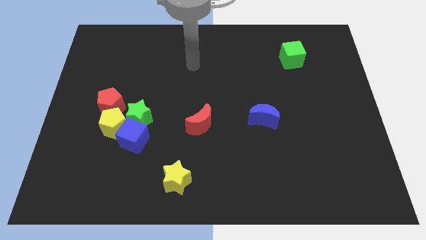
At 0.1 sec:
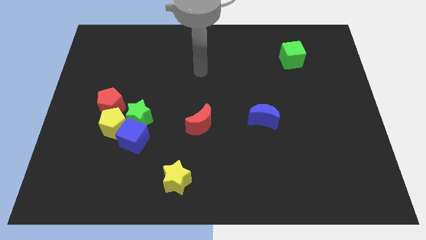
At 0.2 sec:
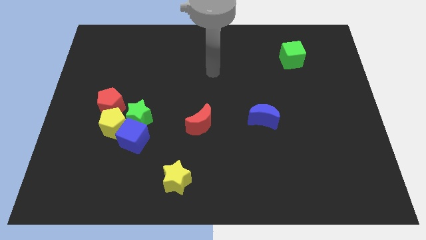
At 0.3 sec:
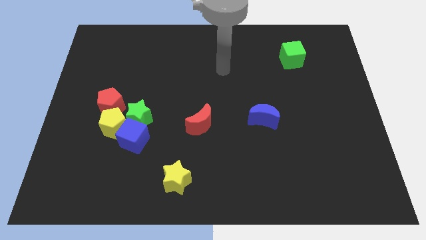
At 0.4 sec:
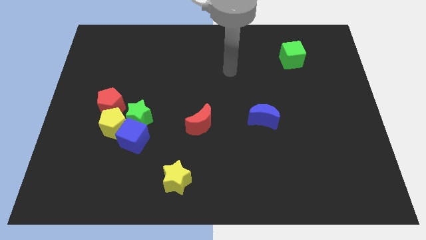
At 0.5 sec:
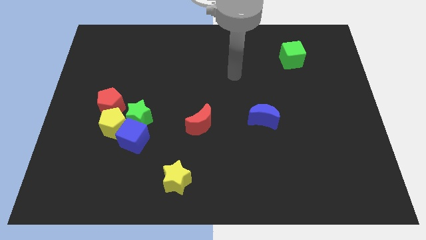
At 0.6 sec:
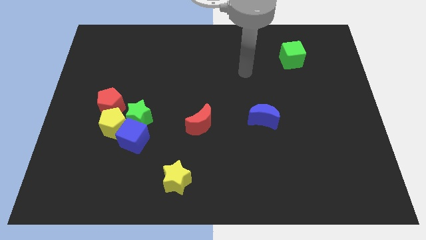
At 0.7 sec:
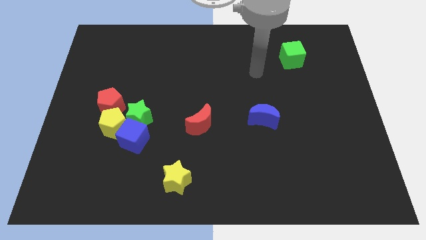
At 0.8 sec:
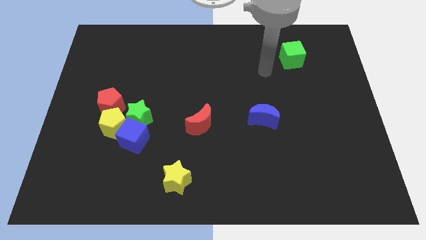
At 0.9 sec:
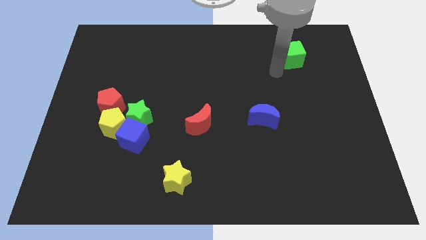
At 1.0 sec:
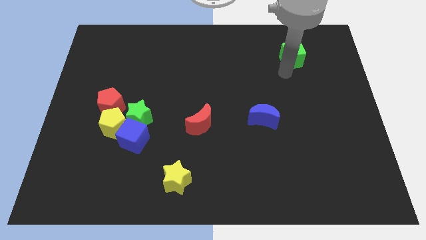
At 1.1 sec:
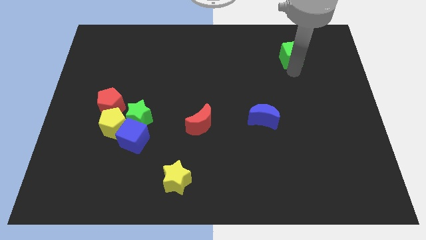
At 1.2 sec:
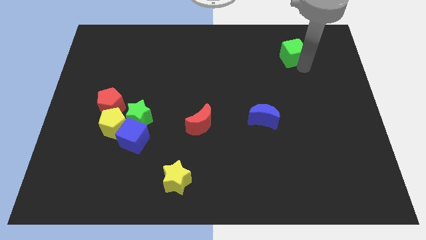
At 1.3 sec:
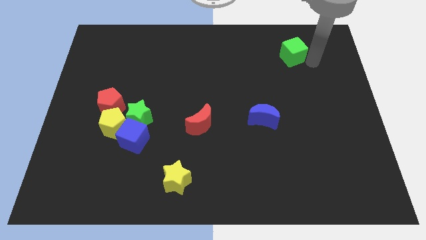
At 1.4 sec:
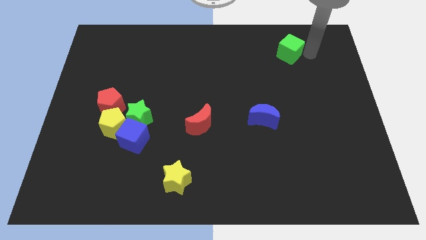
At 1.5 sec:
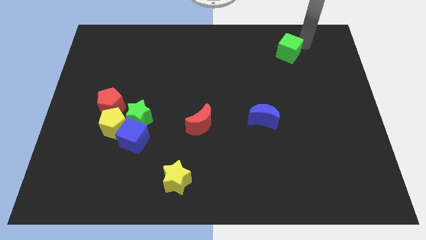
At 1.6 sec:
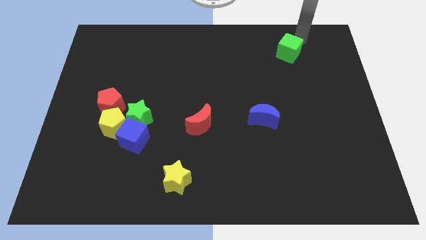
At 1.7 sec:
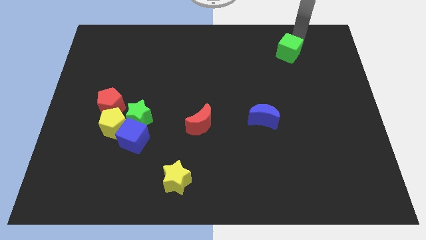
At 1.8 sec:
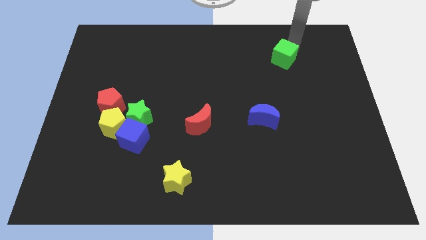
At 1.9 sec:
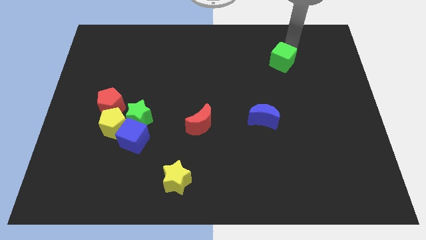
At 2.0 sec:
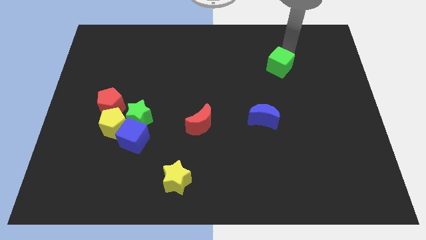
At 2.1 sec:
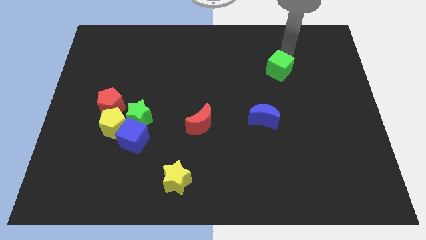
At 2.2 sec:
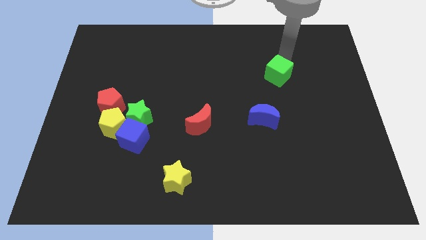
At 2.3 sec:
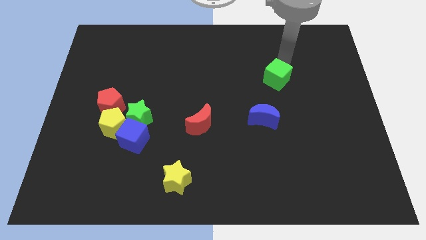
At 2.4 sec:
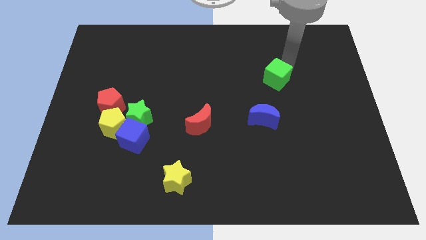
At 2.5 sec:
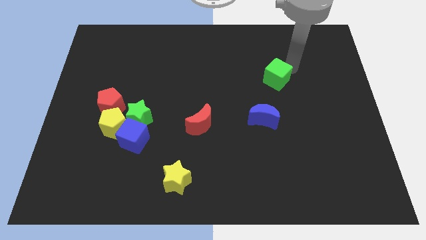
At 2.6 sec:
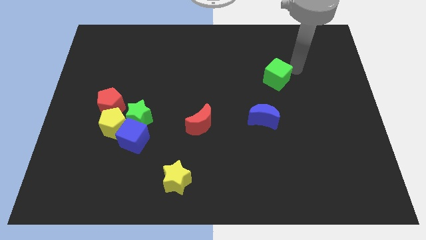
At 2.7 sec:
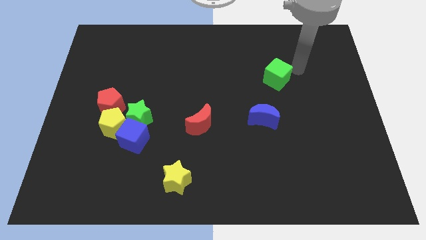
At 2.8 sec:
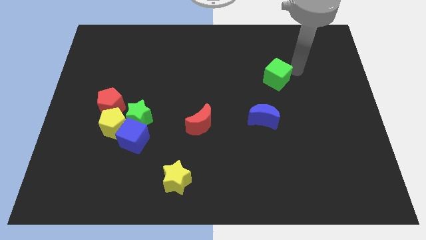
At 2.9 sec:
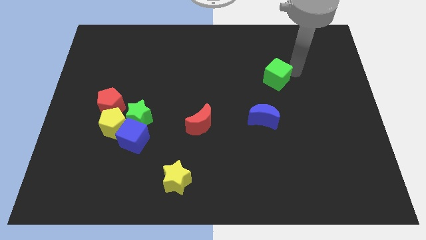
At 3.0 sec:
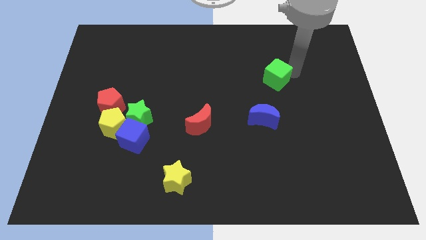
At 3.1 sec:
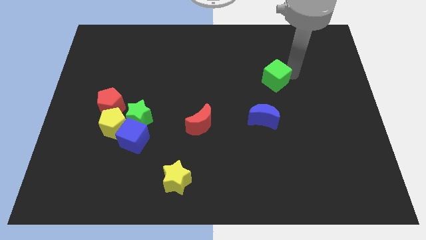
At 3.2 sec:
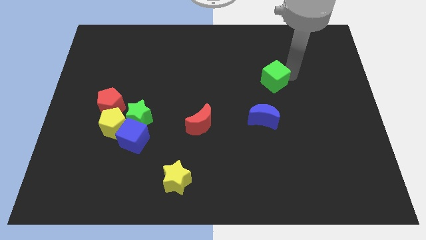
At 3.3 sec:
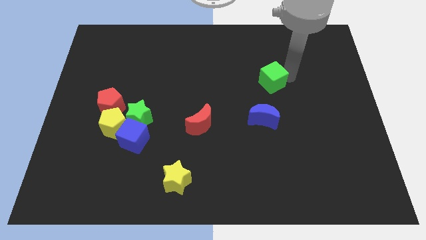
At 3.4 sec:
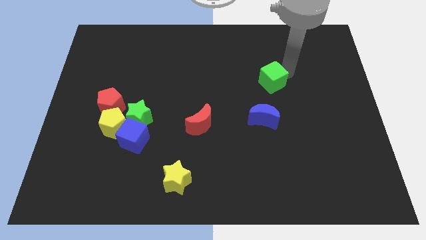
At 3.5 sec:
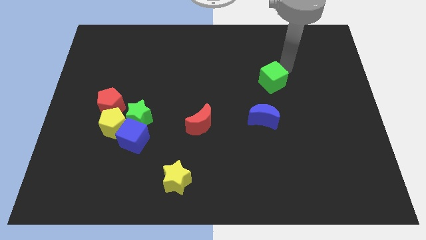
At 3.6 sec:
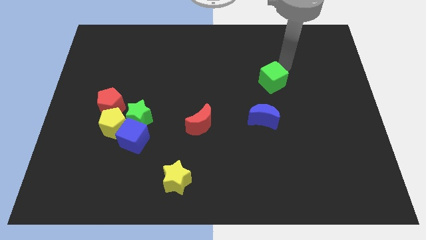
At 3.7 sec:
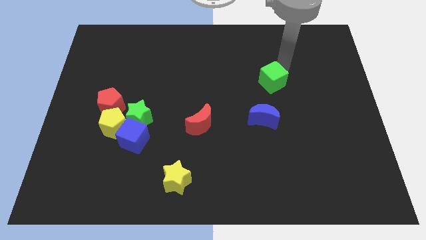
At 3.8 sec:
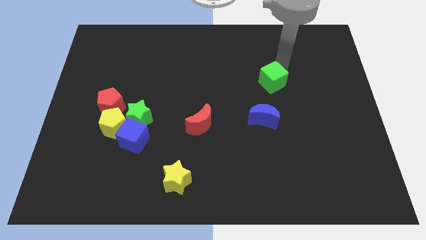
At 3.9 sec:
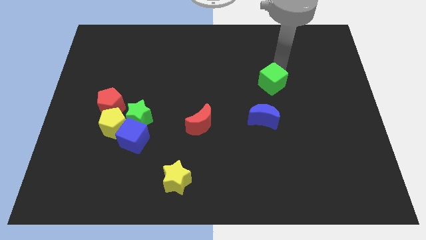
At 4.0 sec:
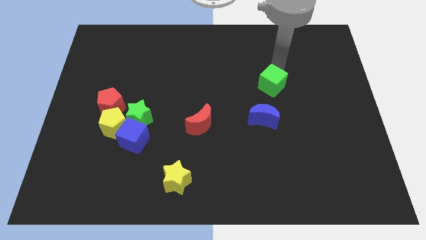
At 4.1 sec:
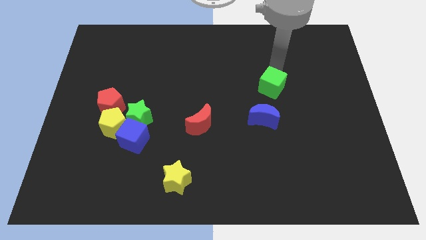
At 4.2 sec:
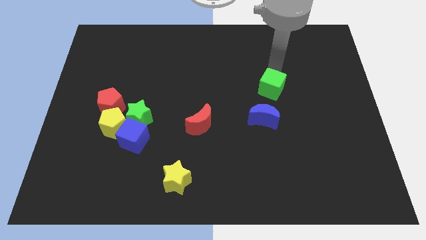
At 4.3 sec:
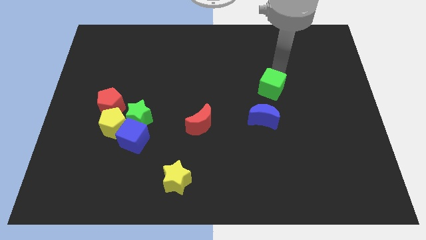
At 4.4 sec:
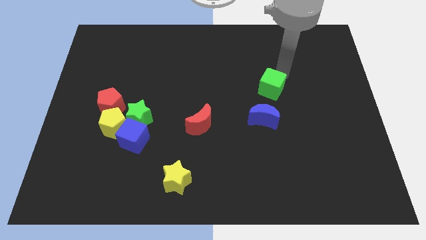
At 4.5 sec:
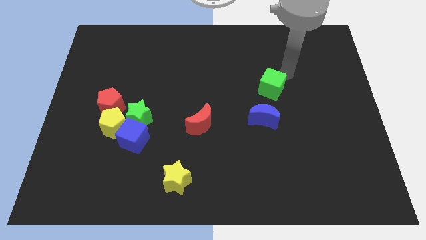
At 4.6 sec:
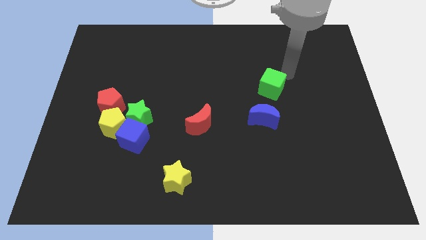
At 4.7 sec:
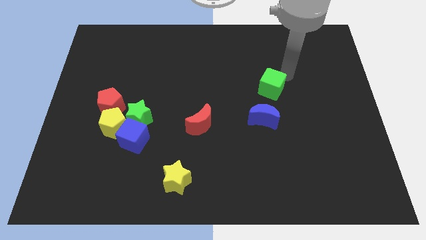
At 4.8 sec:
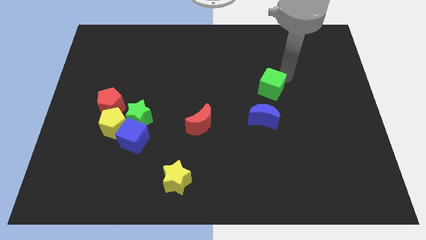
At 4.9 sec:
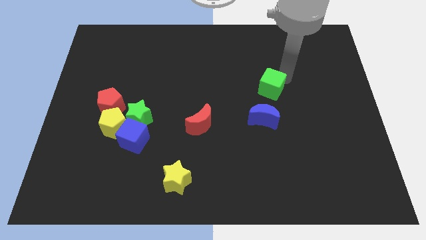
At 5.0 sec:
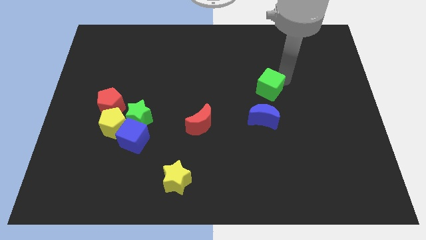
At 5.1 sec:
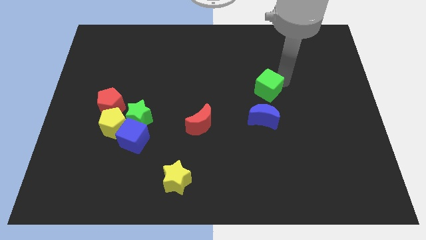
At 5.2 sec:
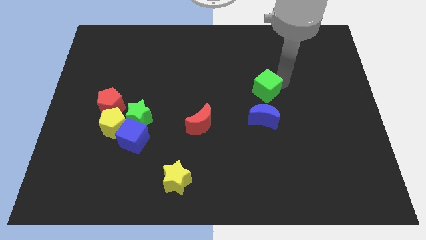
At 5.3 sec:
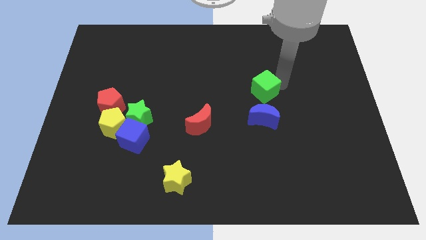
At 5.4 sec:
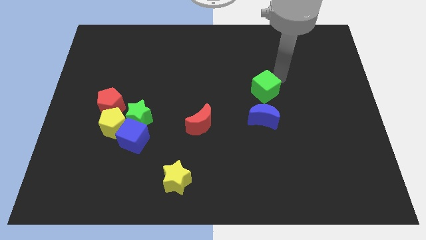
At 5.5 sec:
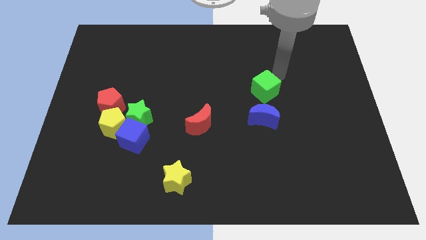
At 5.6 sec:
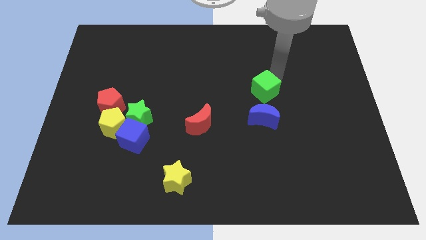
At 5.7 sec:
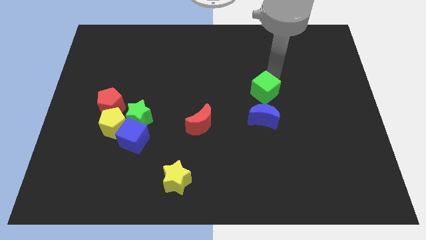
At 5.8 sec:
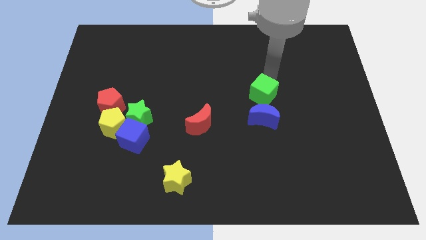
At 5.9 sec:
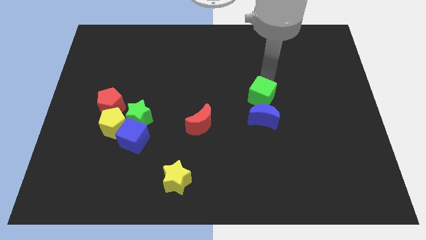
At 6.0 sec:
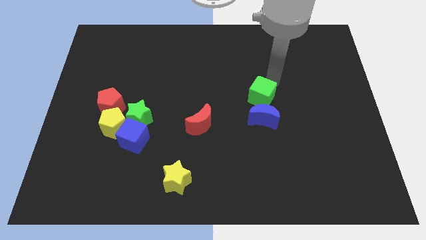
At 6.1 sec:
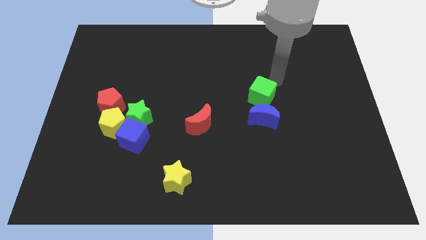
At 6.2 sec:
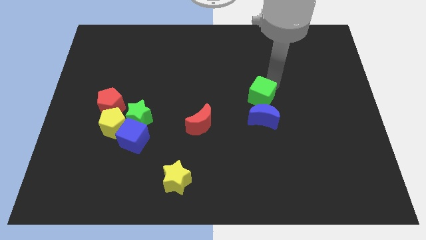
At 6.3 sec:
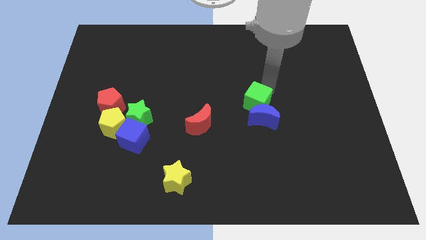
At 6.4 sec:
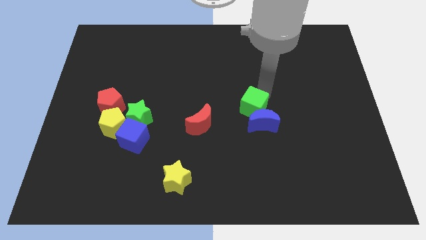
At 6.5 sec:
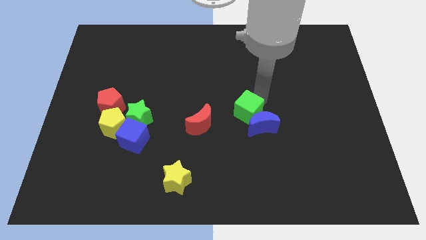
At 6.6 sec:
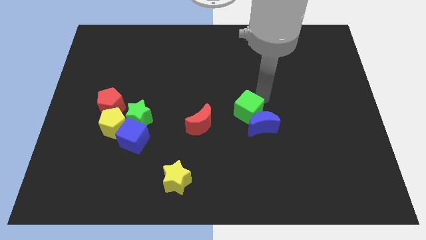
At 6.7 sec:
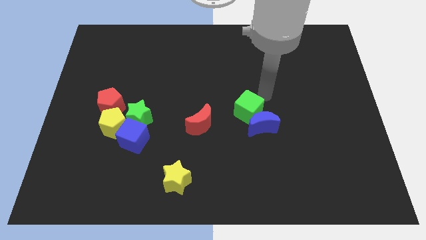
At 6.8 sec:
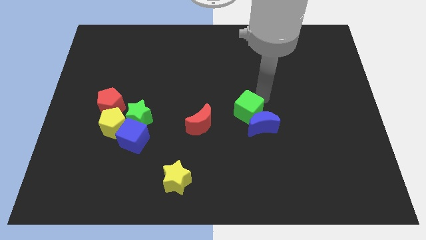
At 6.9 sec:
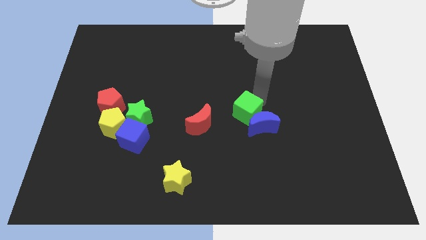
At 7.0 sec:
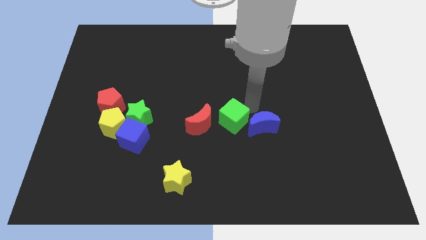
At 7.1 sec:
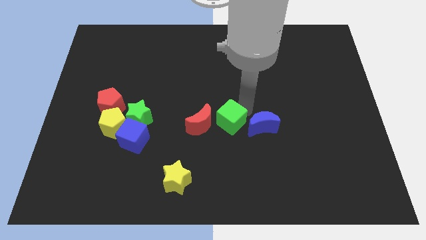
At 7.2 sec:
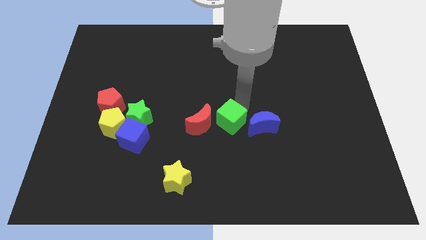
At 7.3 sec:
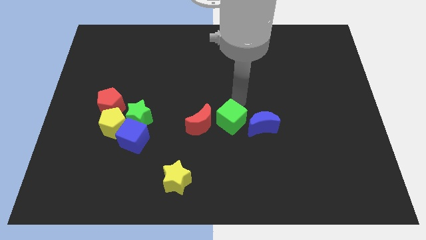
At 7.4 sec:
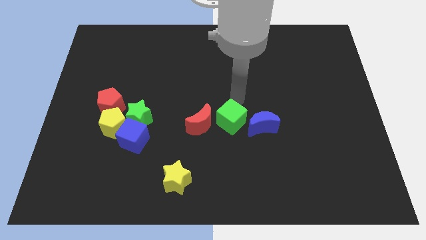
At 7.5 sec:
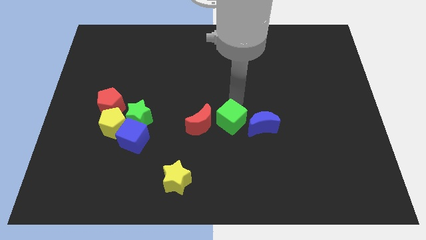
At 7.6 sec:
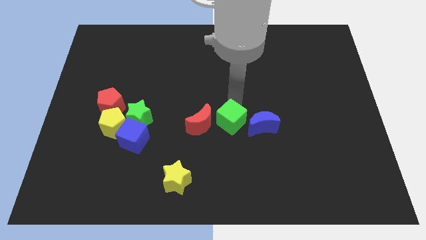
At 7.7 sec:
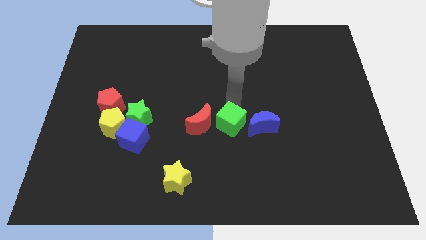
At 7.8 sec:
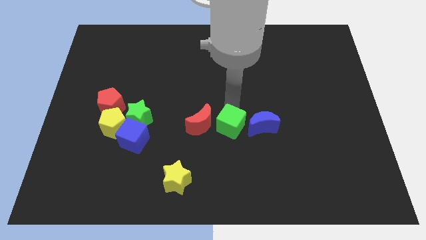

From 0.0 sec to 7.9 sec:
move the green cube to the bottom right of the red moon
